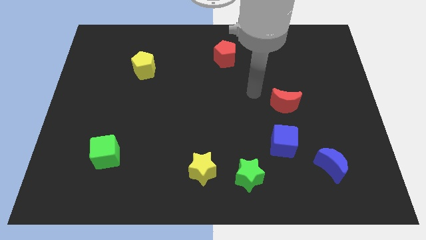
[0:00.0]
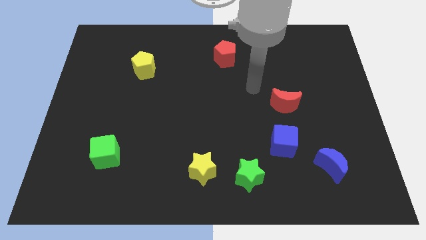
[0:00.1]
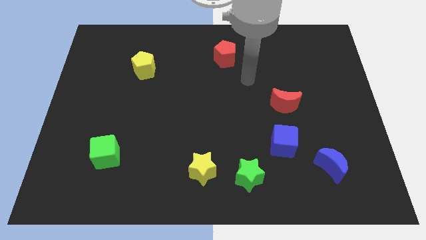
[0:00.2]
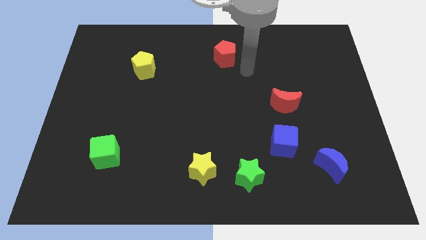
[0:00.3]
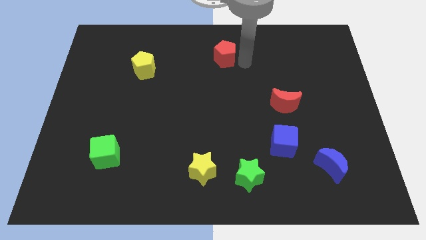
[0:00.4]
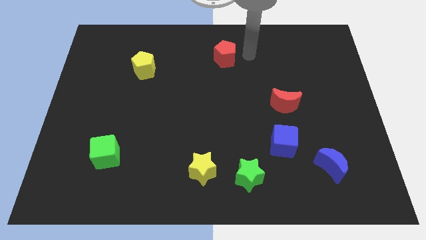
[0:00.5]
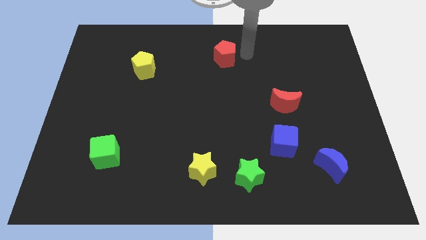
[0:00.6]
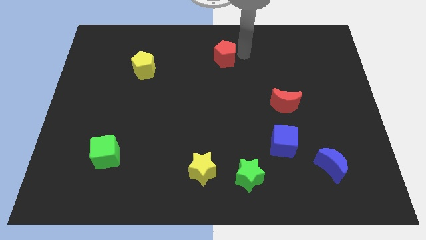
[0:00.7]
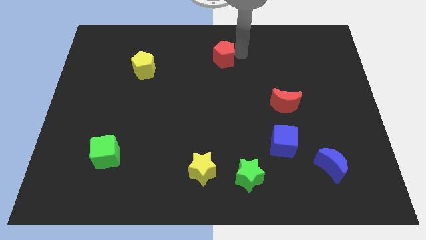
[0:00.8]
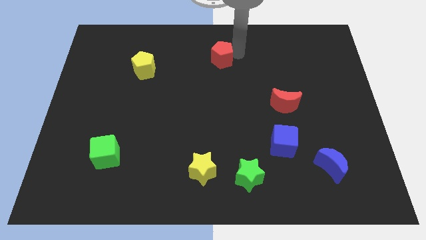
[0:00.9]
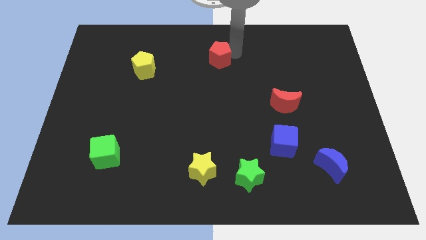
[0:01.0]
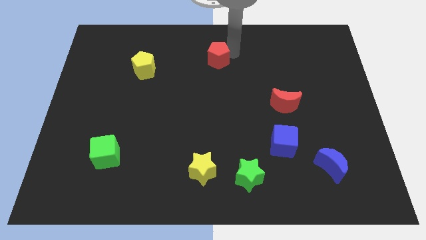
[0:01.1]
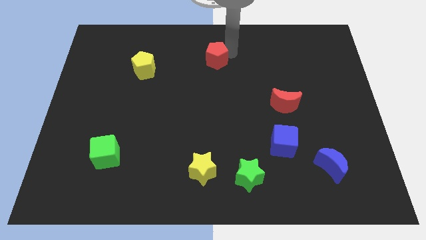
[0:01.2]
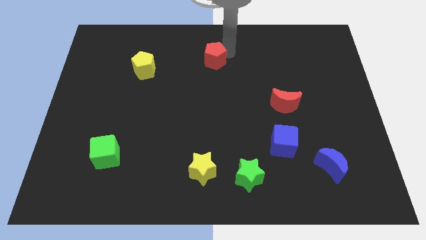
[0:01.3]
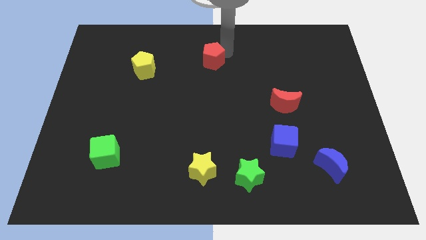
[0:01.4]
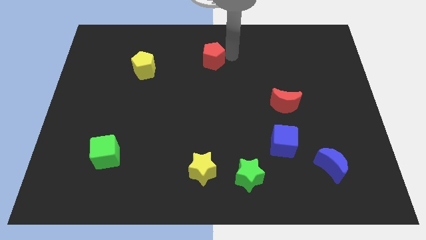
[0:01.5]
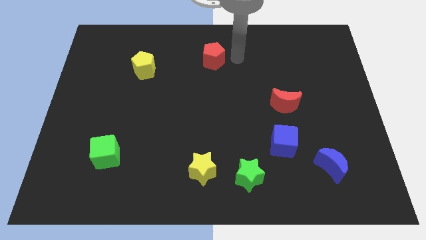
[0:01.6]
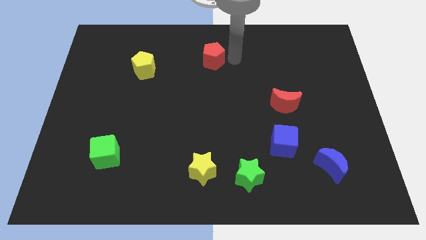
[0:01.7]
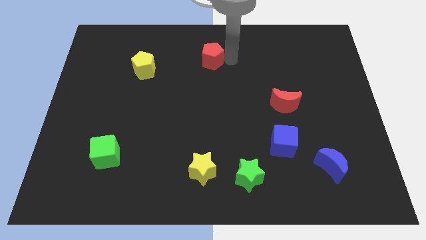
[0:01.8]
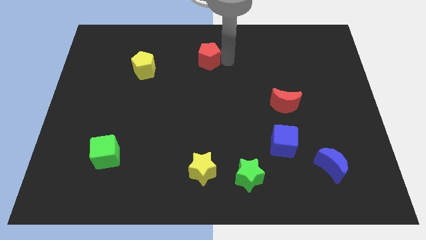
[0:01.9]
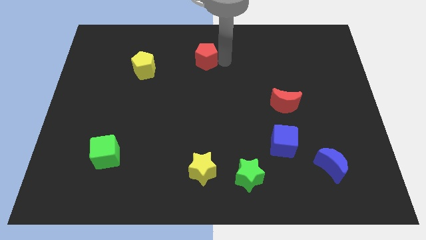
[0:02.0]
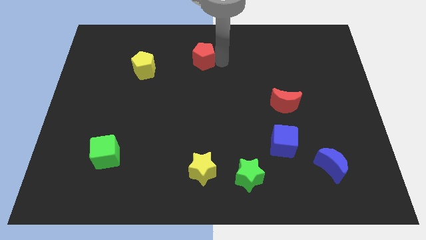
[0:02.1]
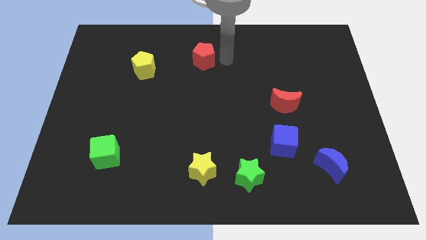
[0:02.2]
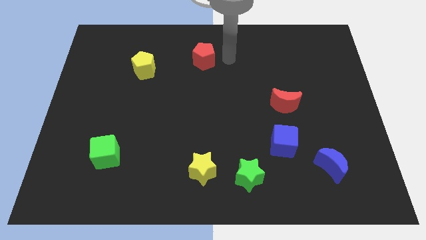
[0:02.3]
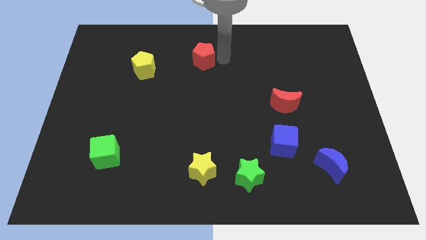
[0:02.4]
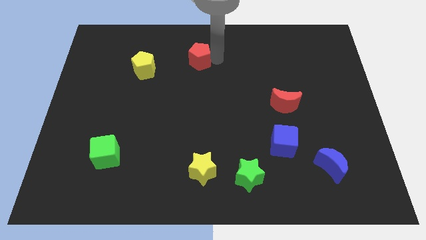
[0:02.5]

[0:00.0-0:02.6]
push the red pentagon to the left somewhat

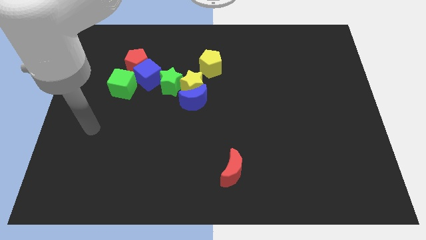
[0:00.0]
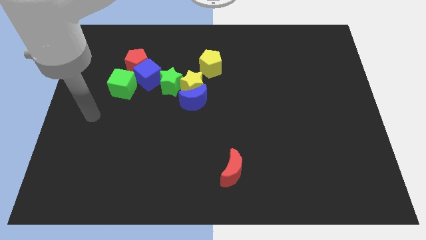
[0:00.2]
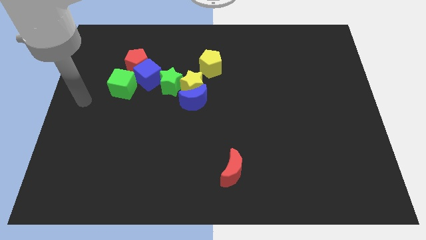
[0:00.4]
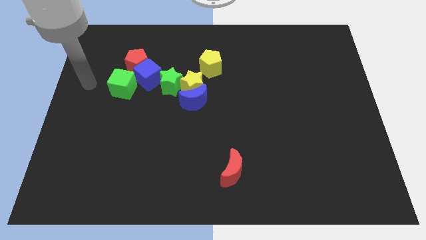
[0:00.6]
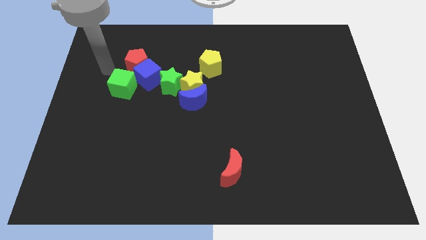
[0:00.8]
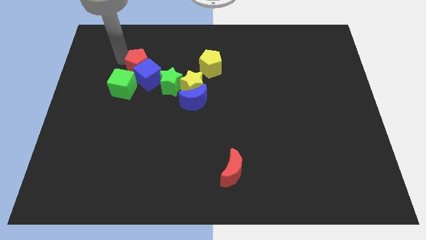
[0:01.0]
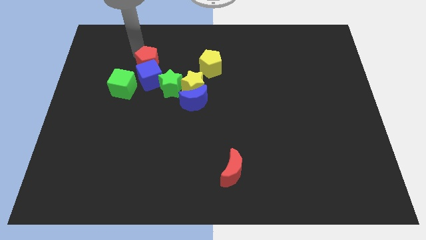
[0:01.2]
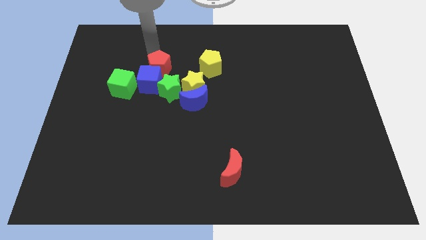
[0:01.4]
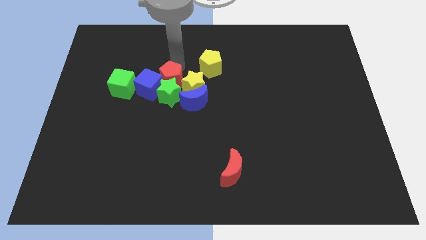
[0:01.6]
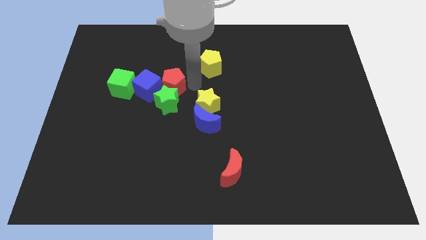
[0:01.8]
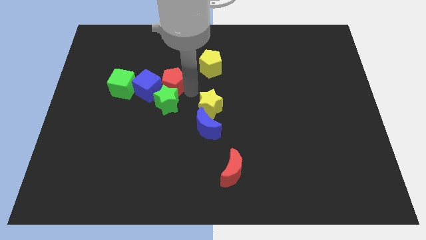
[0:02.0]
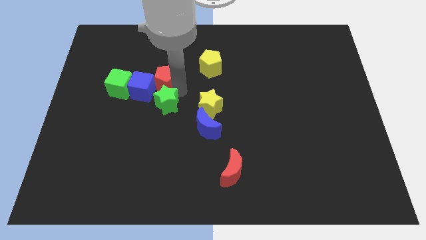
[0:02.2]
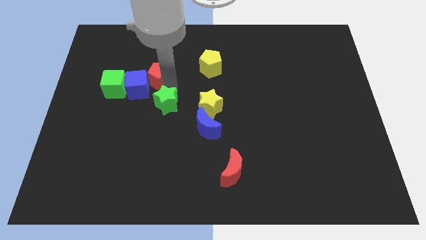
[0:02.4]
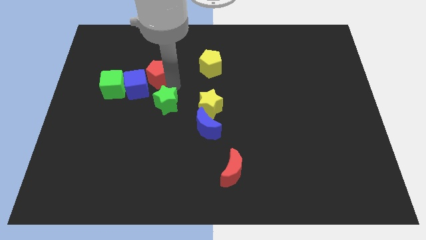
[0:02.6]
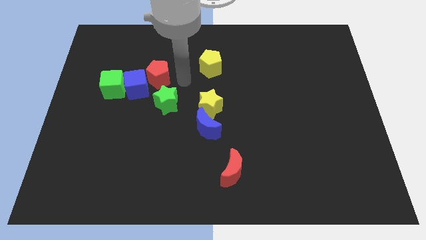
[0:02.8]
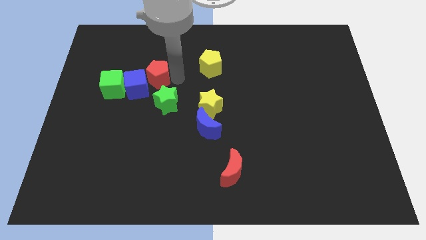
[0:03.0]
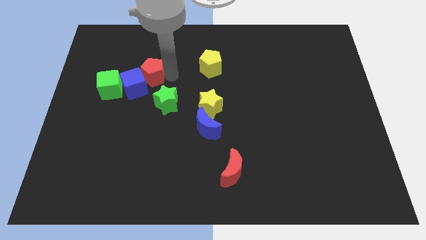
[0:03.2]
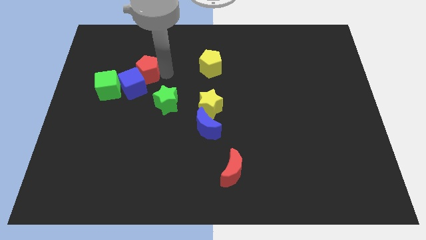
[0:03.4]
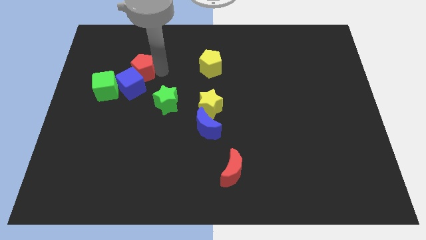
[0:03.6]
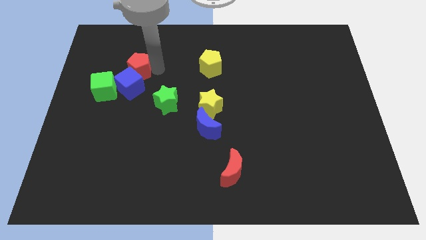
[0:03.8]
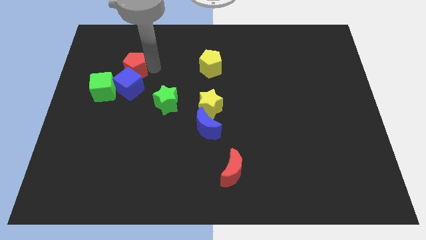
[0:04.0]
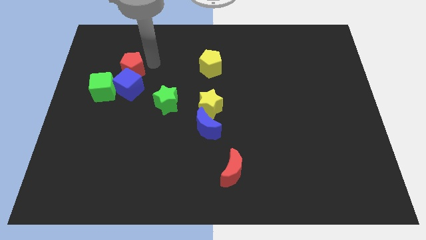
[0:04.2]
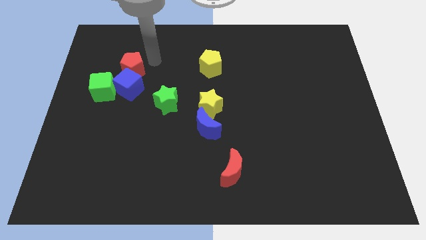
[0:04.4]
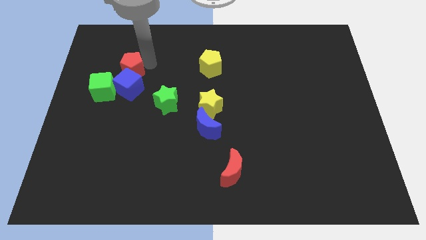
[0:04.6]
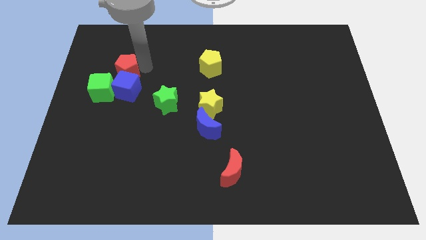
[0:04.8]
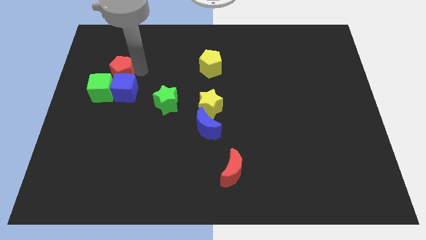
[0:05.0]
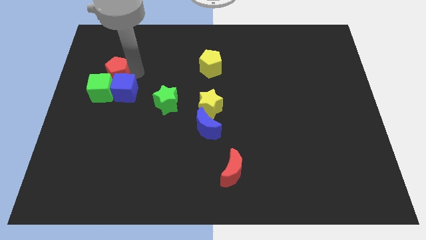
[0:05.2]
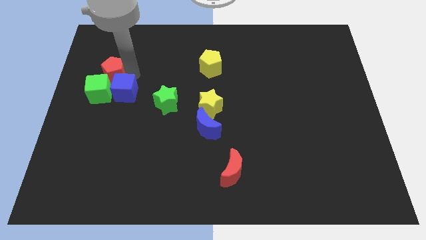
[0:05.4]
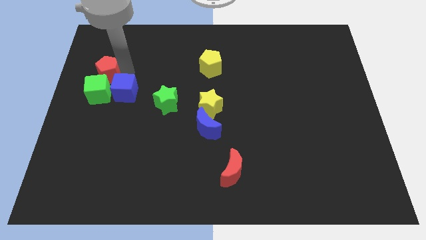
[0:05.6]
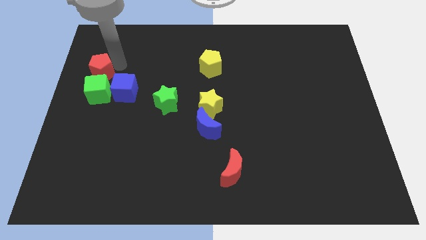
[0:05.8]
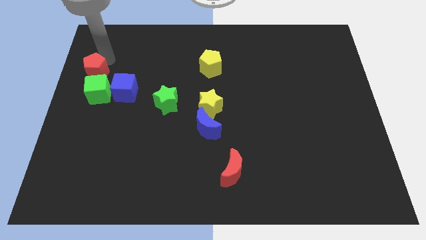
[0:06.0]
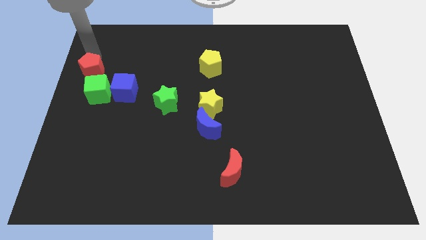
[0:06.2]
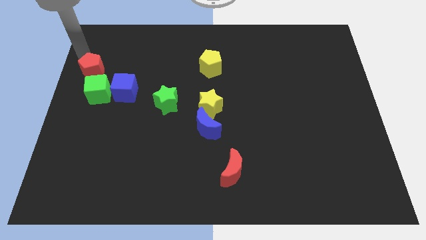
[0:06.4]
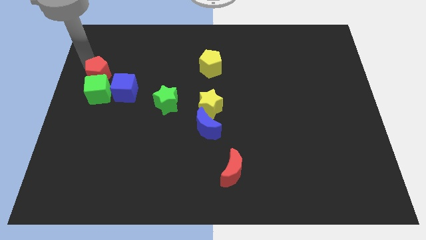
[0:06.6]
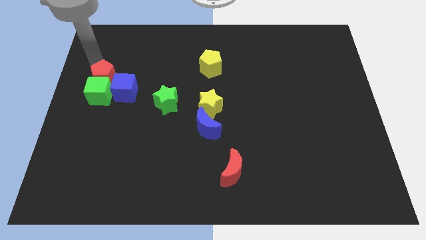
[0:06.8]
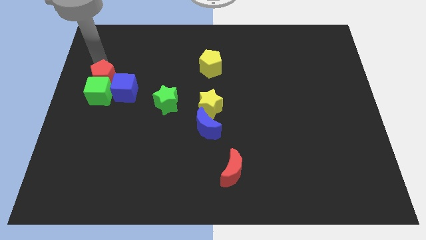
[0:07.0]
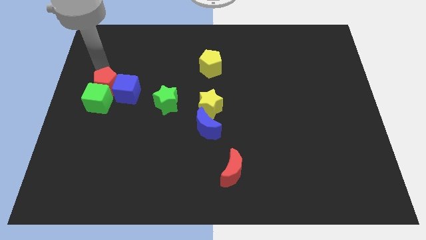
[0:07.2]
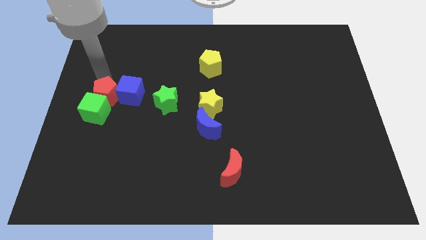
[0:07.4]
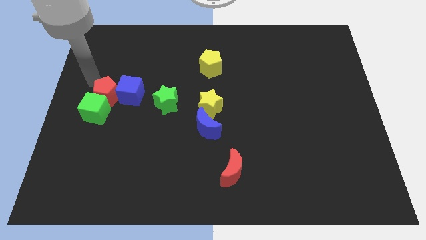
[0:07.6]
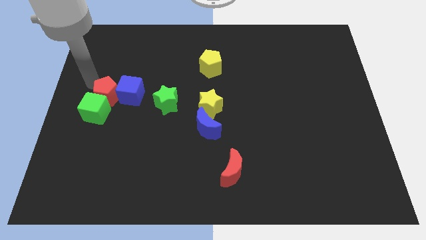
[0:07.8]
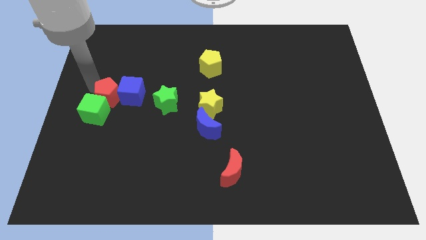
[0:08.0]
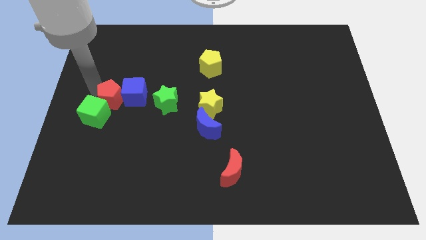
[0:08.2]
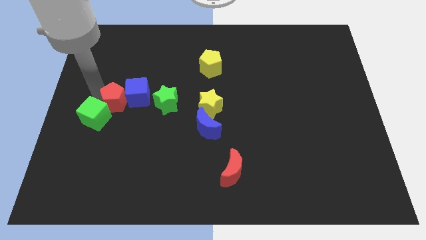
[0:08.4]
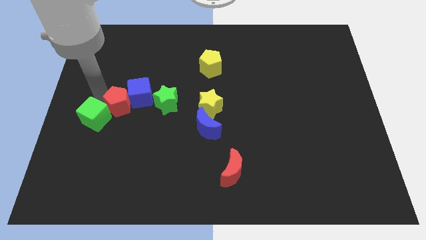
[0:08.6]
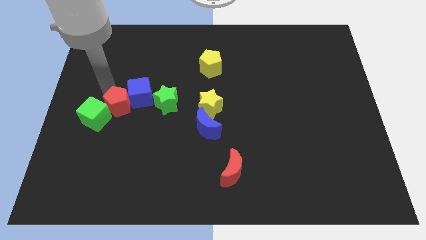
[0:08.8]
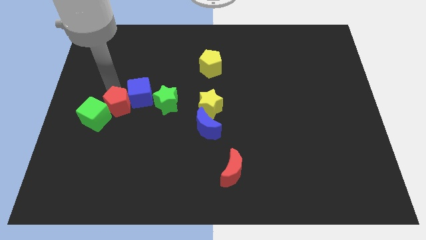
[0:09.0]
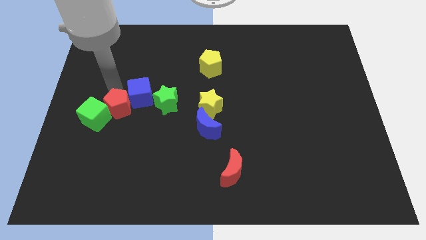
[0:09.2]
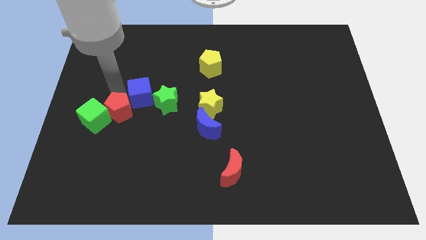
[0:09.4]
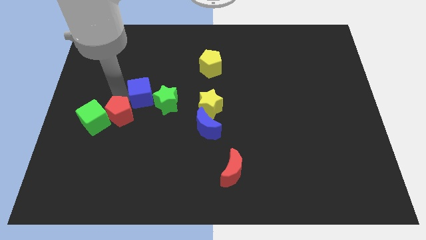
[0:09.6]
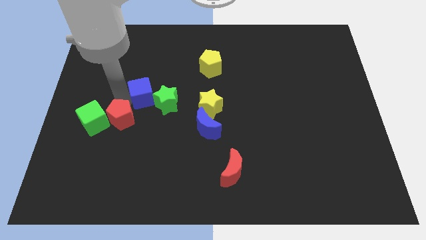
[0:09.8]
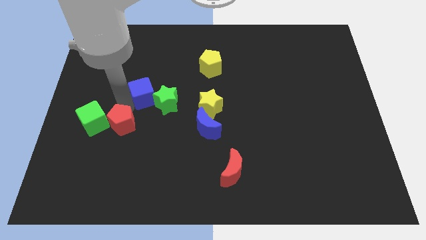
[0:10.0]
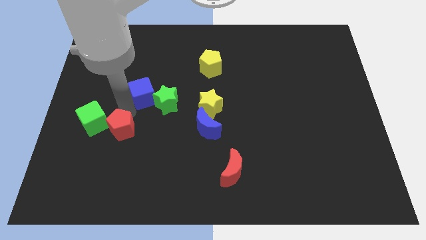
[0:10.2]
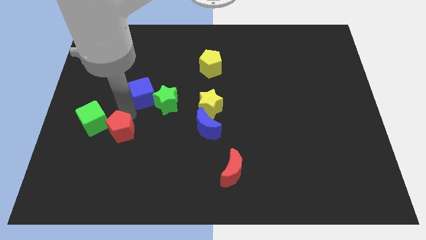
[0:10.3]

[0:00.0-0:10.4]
slide the red pentagon down
